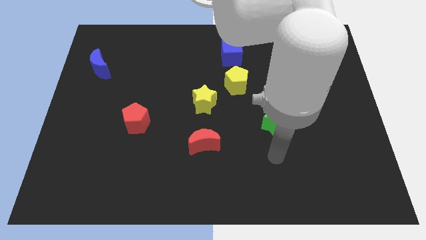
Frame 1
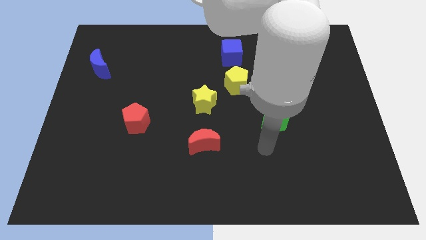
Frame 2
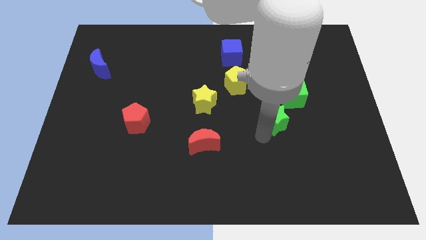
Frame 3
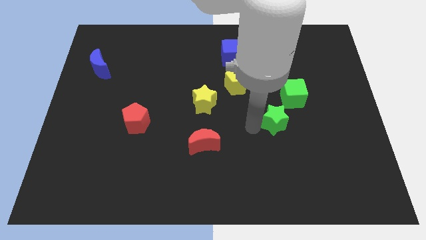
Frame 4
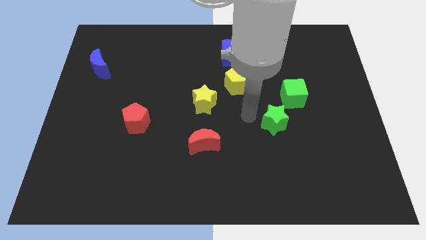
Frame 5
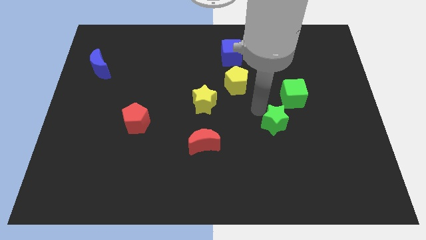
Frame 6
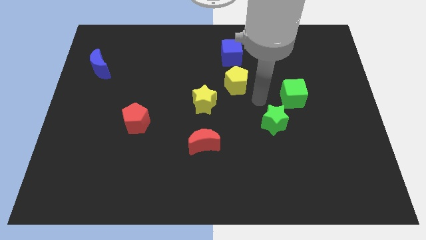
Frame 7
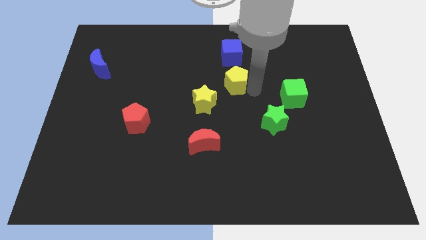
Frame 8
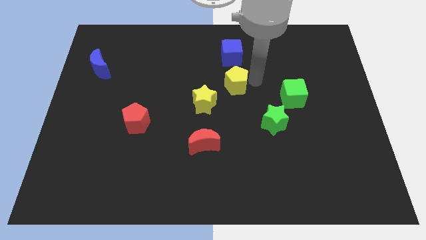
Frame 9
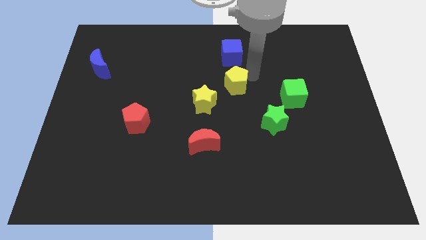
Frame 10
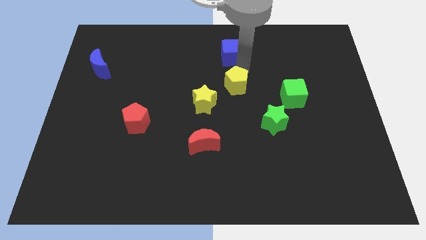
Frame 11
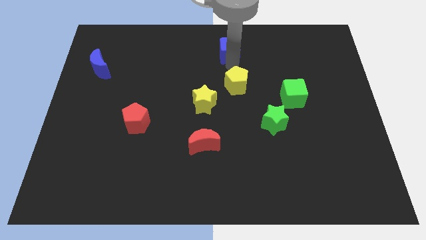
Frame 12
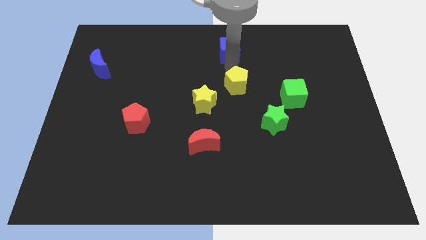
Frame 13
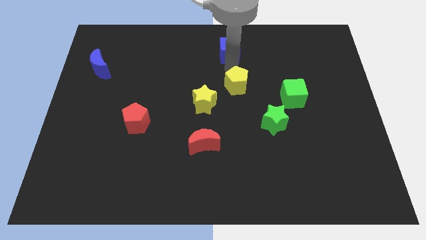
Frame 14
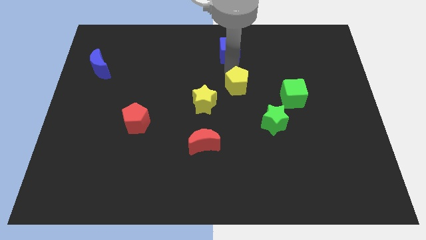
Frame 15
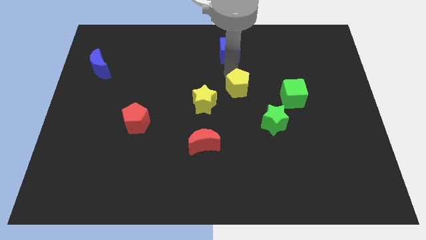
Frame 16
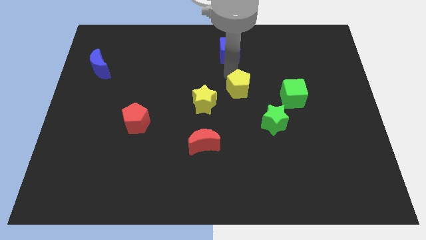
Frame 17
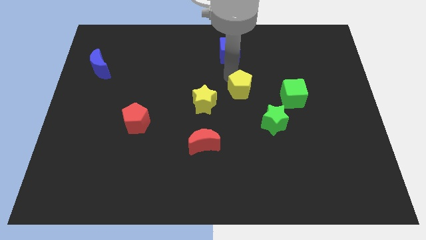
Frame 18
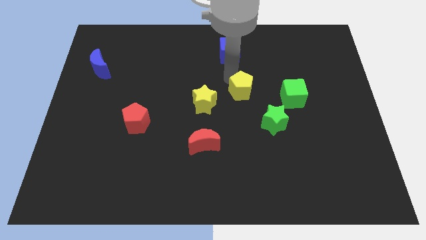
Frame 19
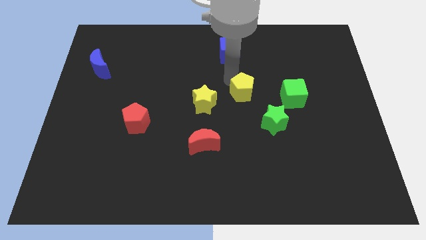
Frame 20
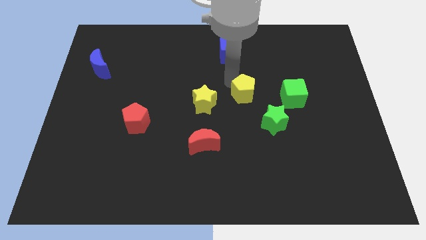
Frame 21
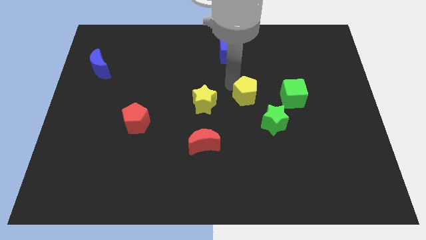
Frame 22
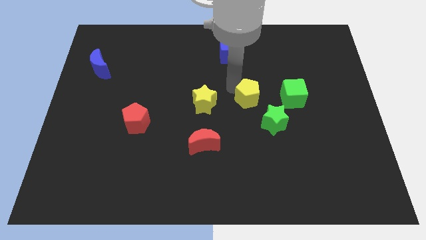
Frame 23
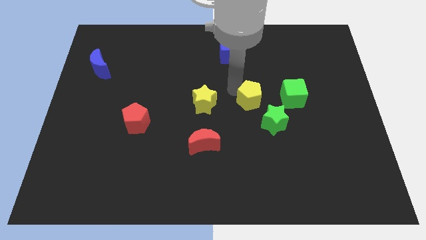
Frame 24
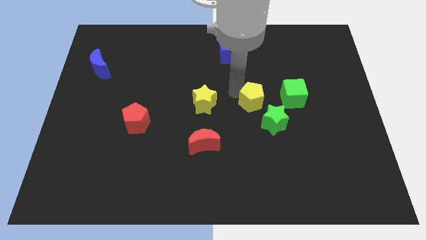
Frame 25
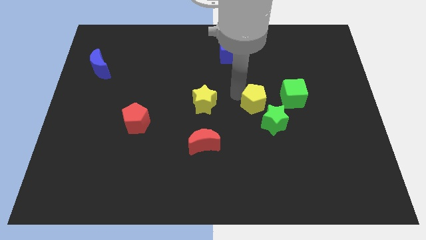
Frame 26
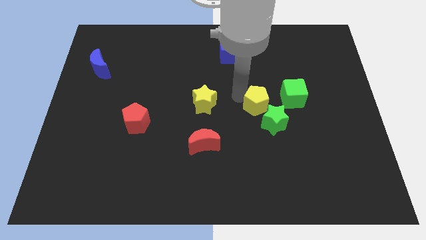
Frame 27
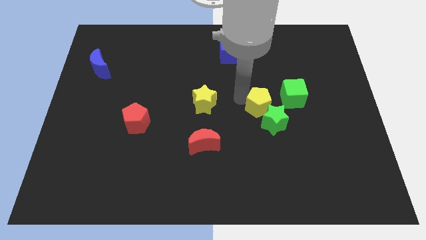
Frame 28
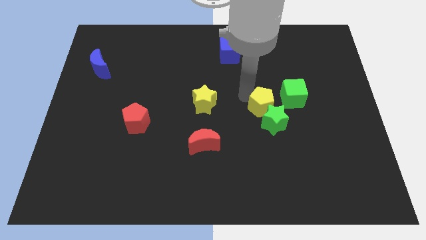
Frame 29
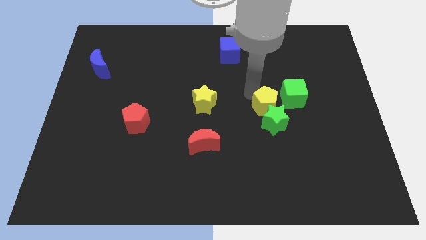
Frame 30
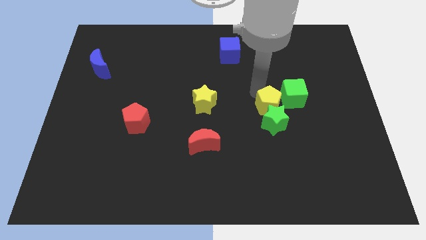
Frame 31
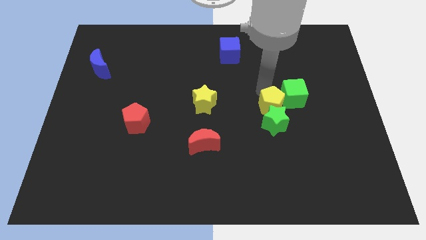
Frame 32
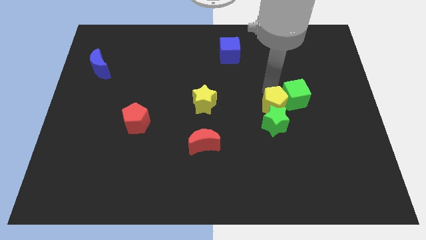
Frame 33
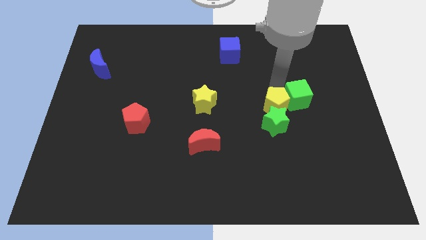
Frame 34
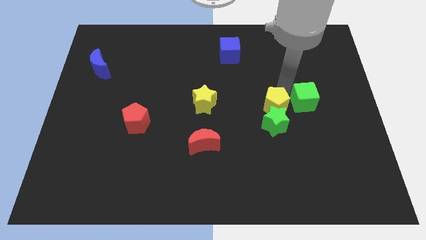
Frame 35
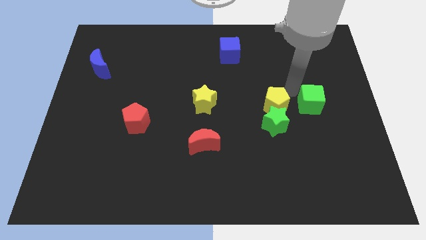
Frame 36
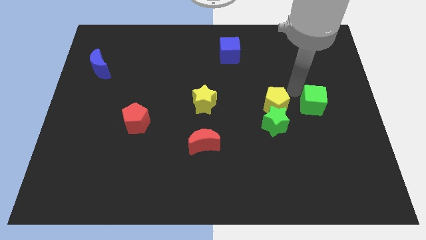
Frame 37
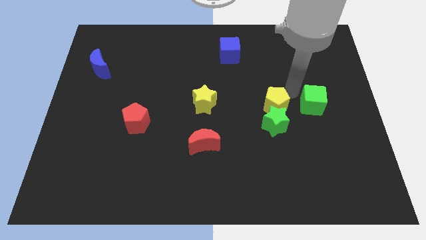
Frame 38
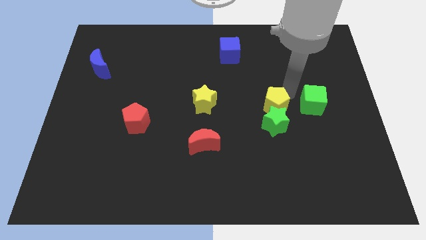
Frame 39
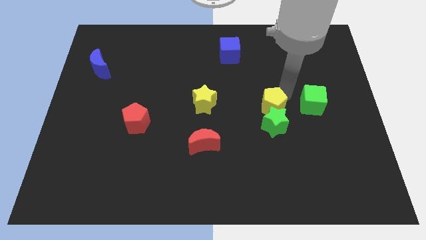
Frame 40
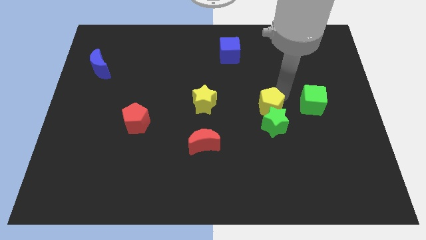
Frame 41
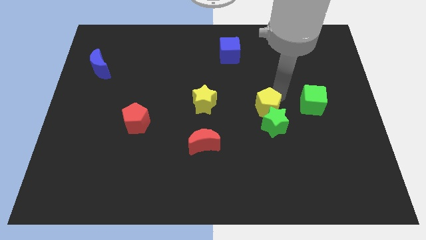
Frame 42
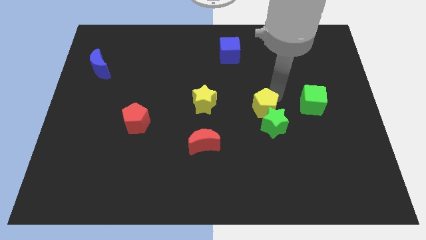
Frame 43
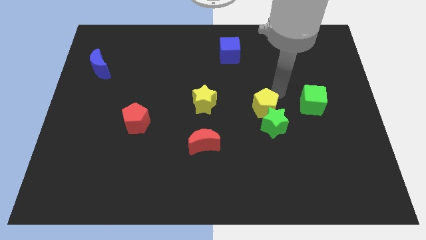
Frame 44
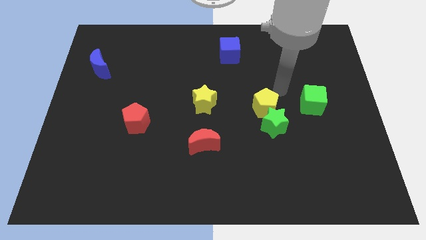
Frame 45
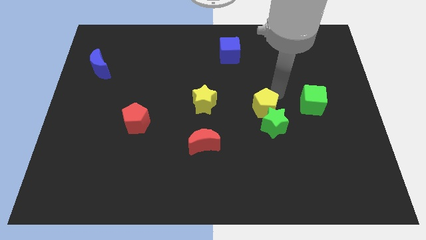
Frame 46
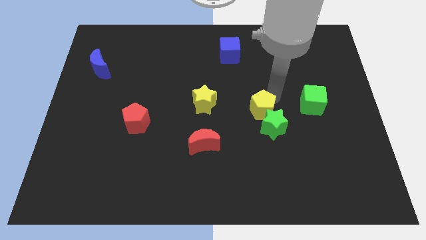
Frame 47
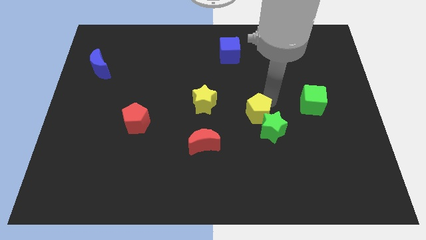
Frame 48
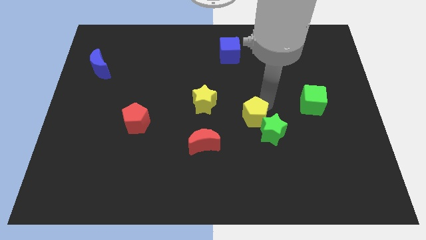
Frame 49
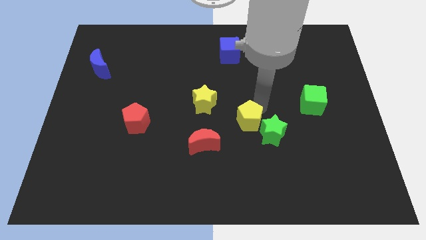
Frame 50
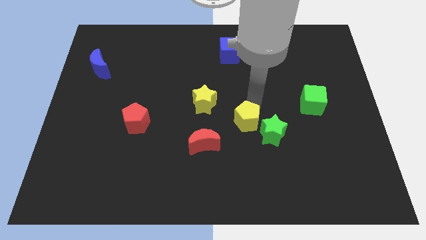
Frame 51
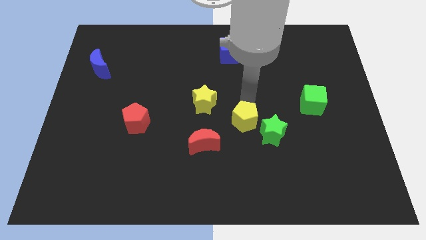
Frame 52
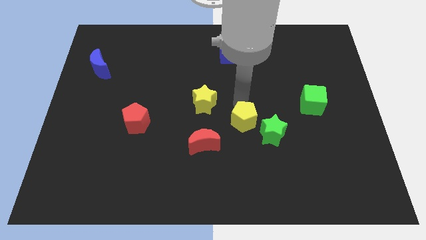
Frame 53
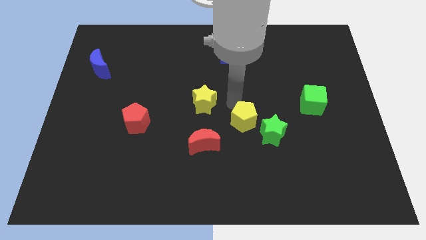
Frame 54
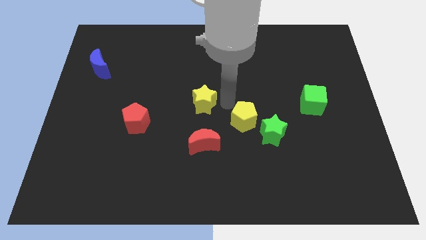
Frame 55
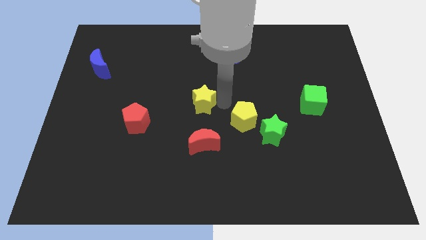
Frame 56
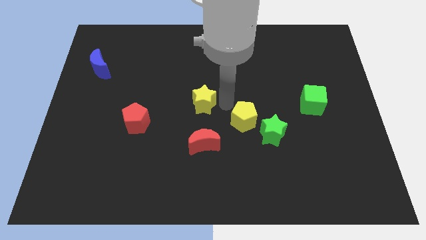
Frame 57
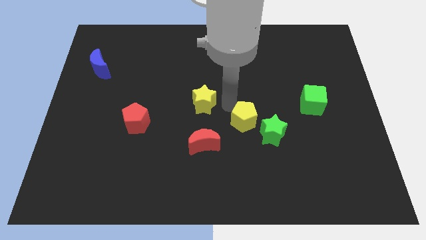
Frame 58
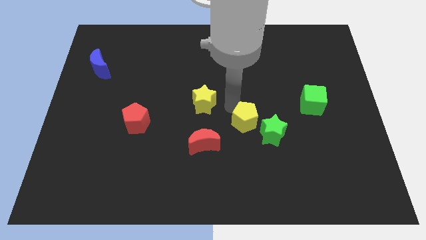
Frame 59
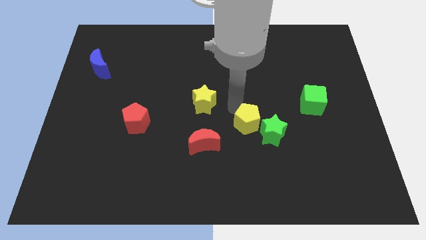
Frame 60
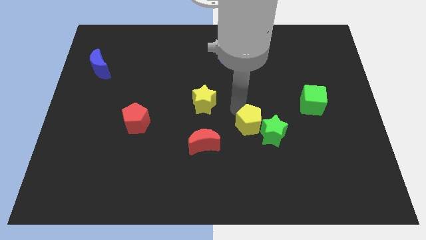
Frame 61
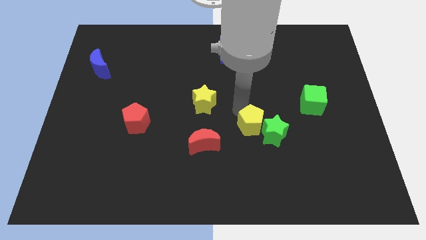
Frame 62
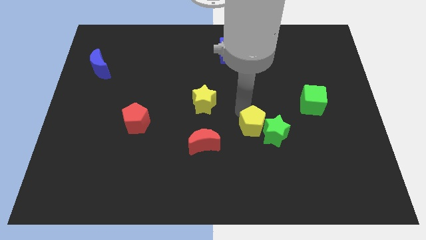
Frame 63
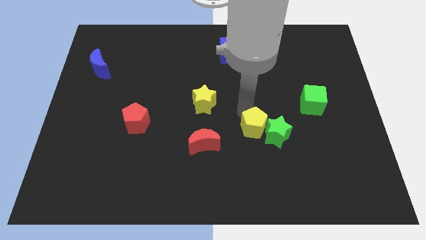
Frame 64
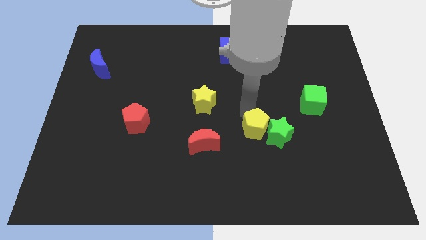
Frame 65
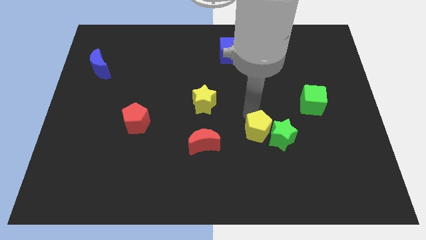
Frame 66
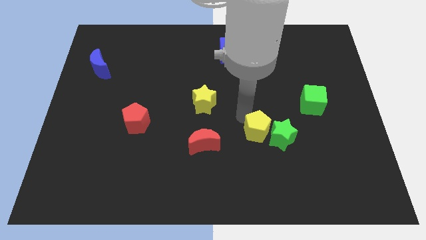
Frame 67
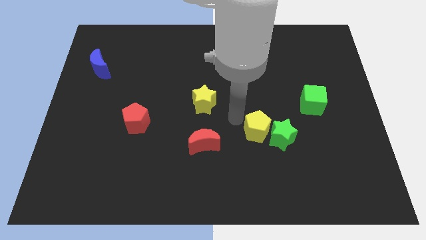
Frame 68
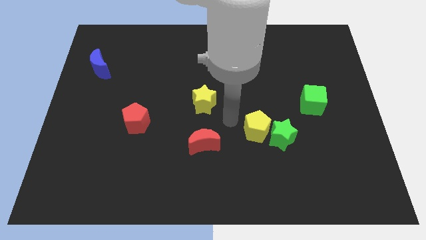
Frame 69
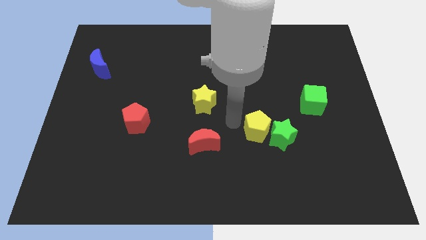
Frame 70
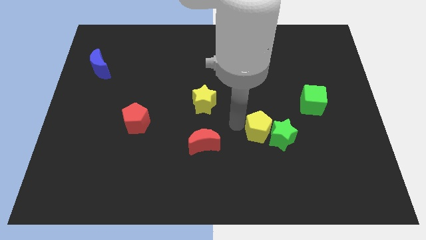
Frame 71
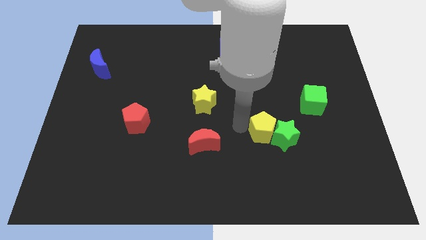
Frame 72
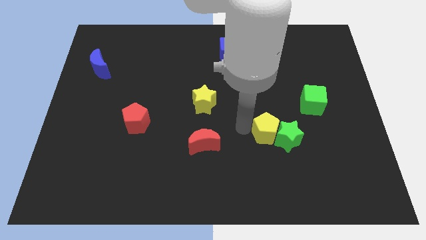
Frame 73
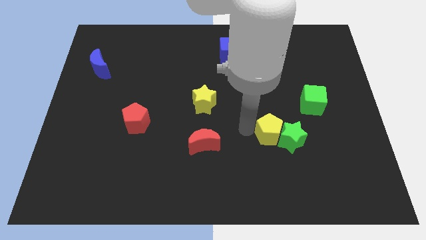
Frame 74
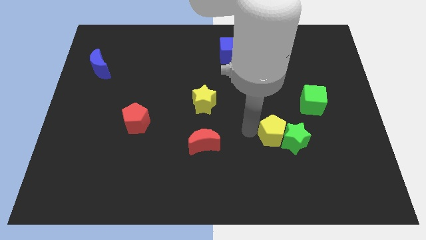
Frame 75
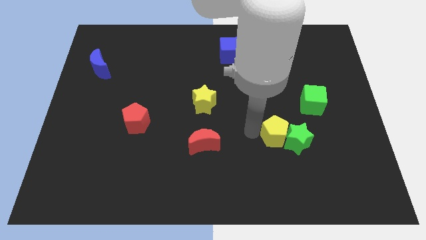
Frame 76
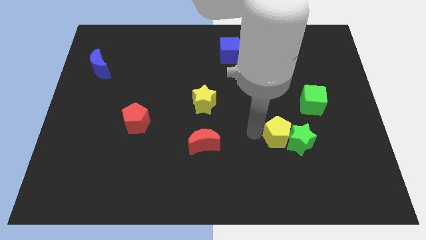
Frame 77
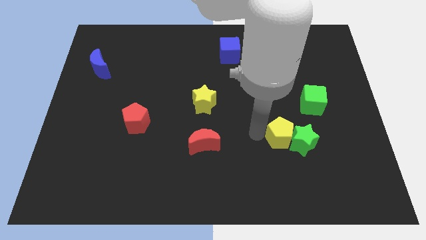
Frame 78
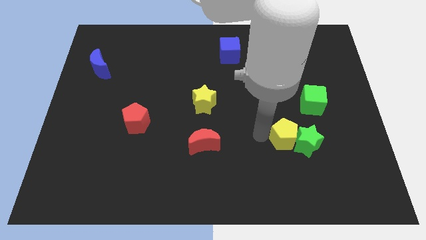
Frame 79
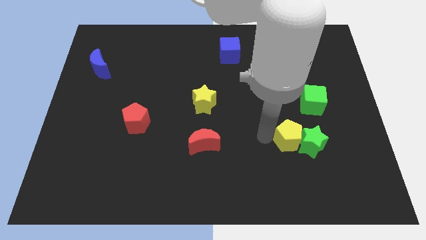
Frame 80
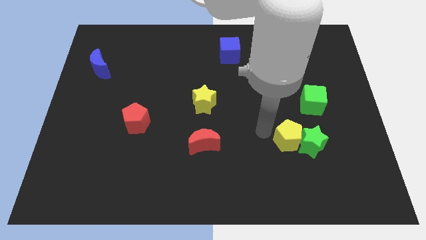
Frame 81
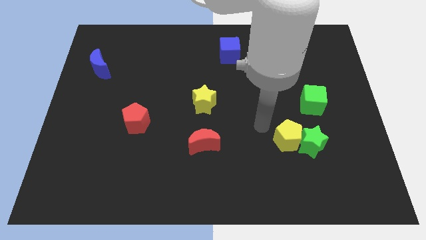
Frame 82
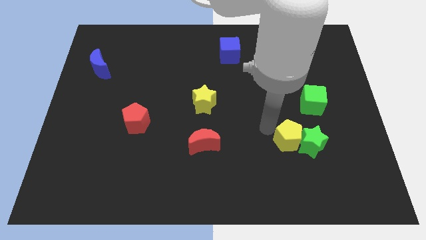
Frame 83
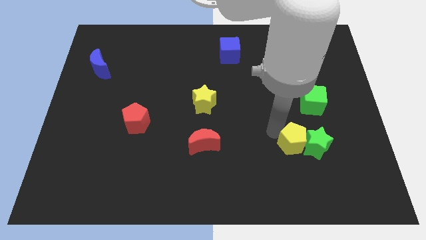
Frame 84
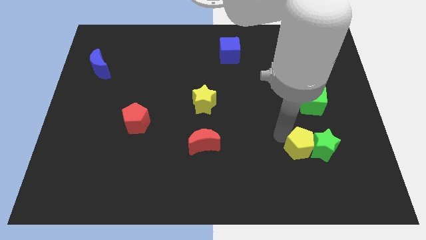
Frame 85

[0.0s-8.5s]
move the yellow pentagon down and right
